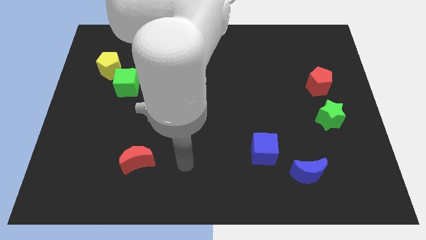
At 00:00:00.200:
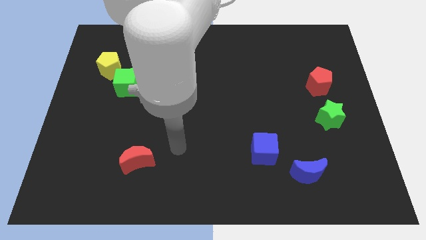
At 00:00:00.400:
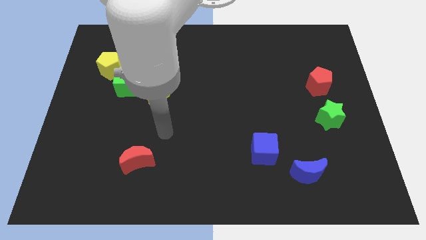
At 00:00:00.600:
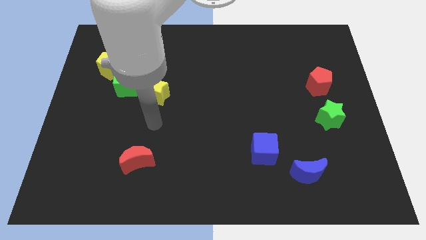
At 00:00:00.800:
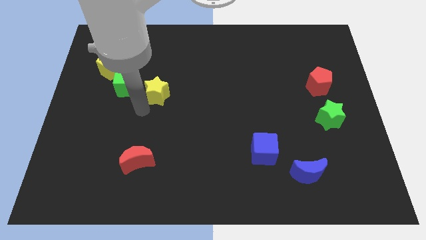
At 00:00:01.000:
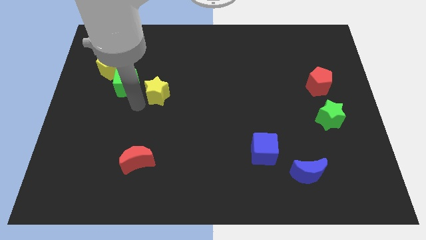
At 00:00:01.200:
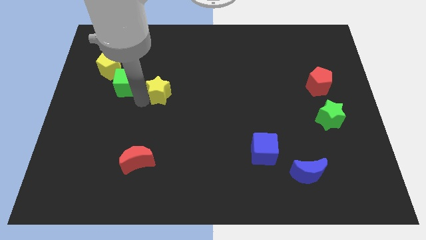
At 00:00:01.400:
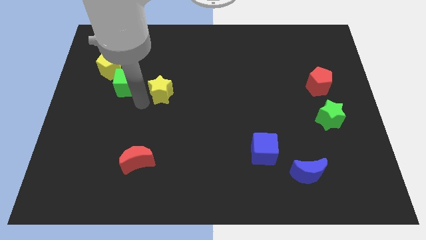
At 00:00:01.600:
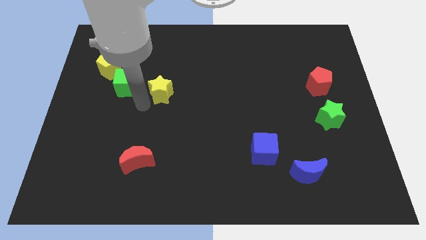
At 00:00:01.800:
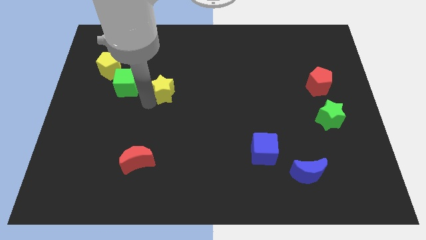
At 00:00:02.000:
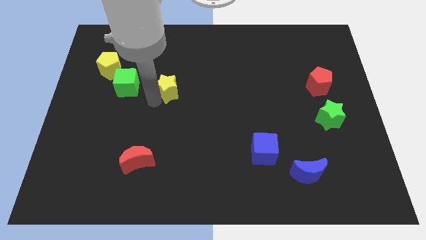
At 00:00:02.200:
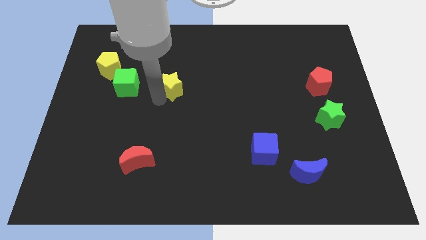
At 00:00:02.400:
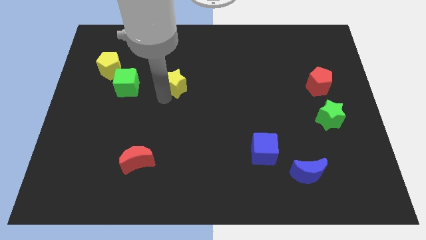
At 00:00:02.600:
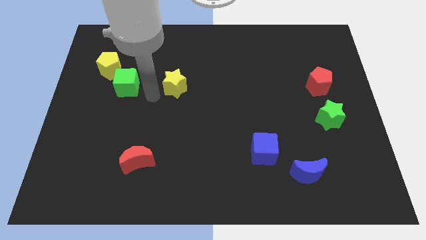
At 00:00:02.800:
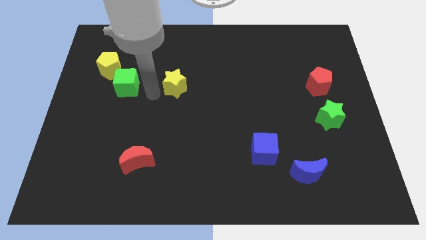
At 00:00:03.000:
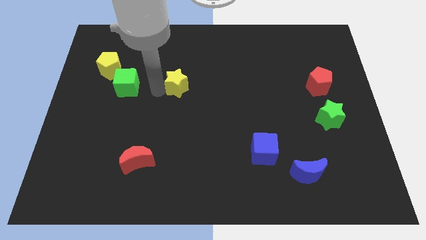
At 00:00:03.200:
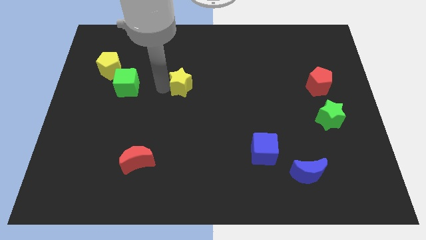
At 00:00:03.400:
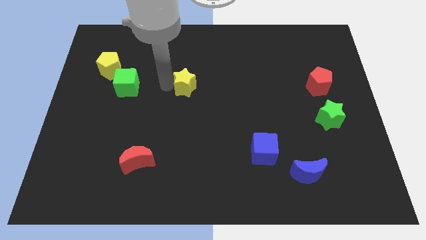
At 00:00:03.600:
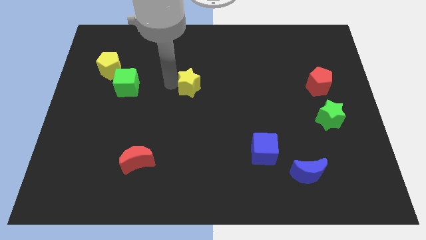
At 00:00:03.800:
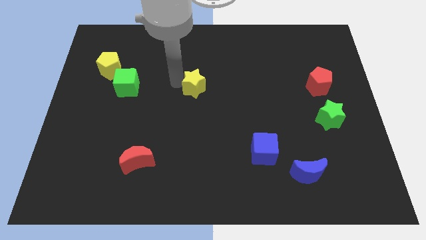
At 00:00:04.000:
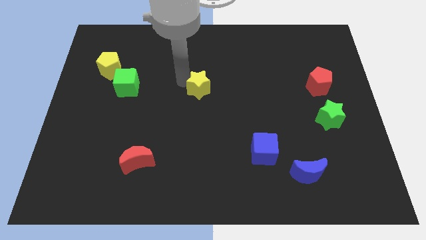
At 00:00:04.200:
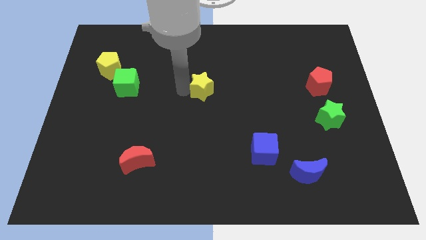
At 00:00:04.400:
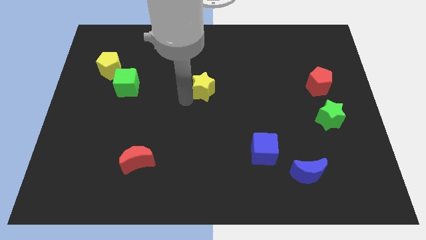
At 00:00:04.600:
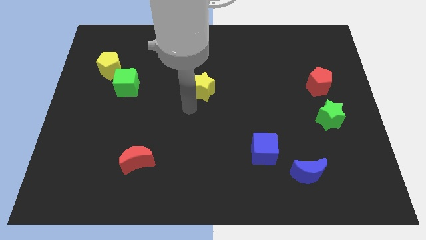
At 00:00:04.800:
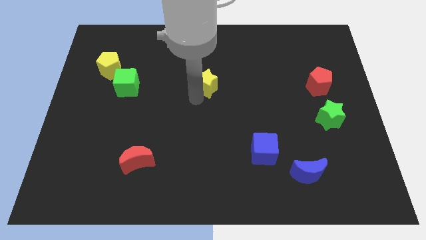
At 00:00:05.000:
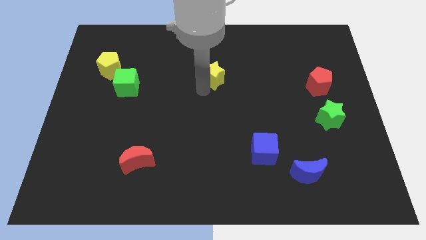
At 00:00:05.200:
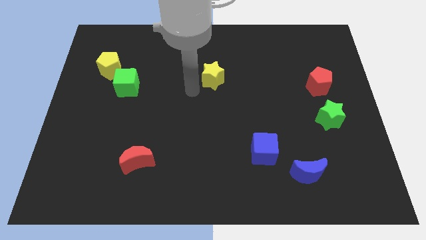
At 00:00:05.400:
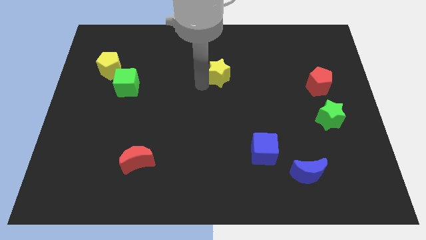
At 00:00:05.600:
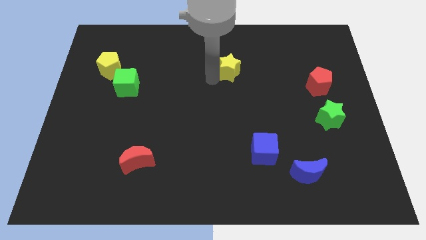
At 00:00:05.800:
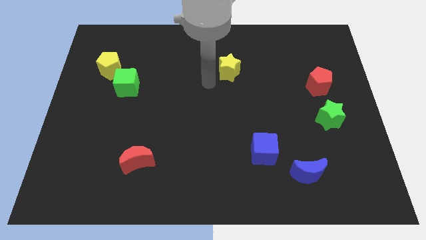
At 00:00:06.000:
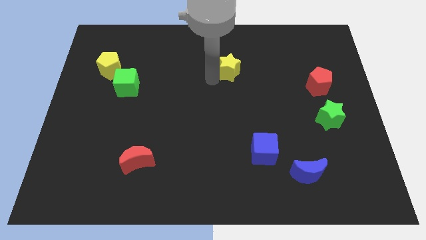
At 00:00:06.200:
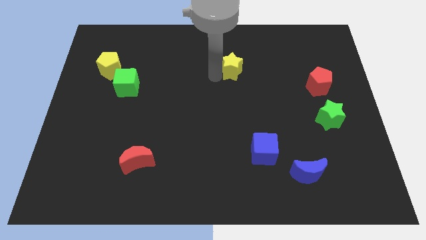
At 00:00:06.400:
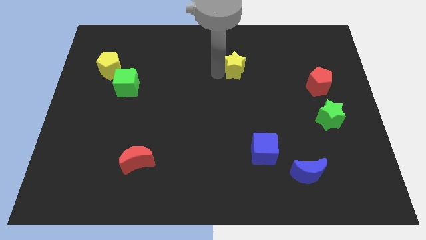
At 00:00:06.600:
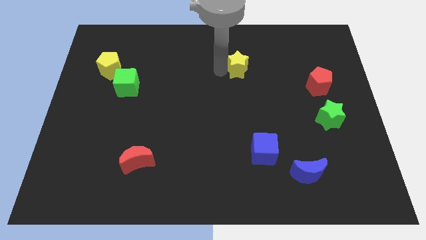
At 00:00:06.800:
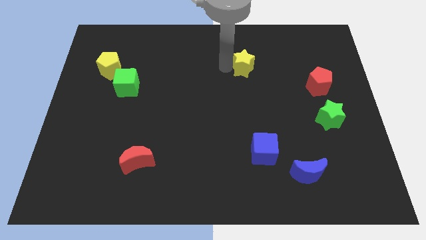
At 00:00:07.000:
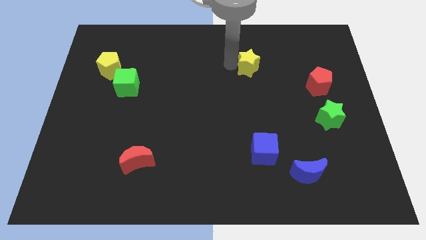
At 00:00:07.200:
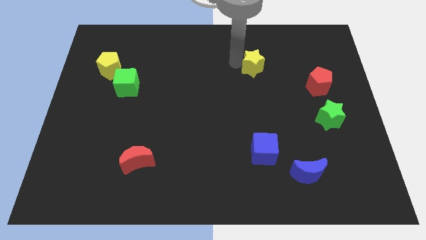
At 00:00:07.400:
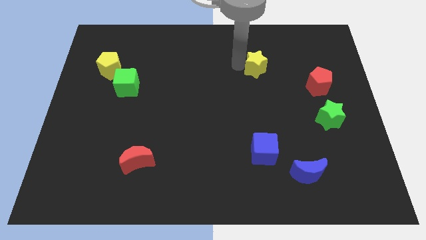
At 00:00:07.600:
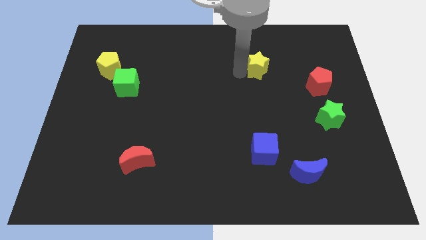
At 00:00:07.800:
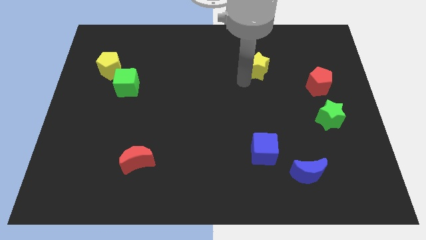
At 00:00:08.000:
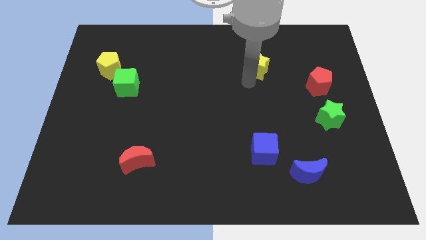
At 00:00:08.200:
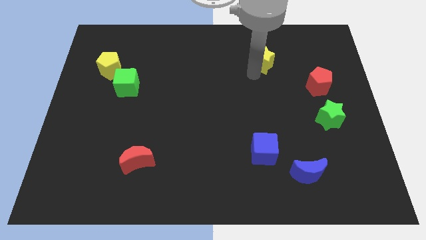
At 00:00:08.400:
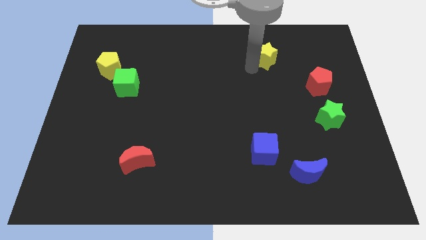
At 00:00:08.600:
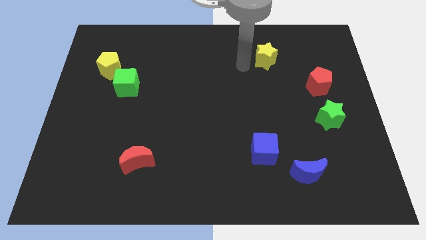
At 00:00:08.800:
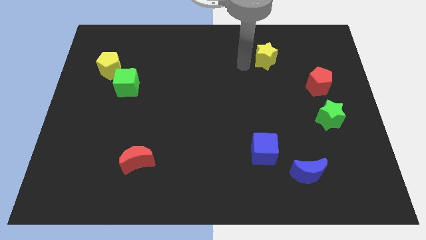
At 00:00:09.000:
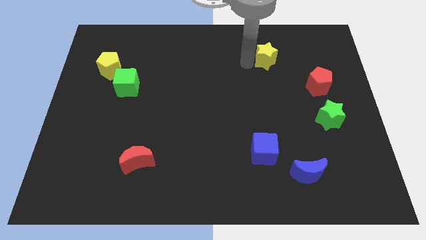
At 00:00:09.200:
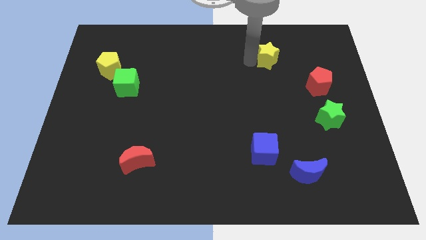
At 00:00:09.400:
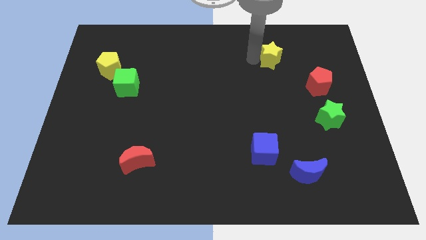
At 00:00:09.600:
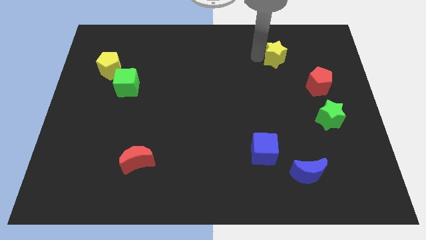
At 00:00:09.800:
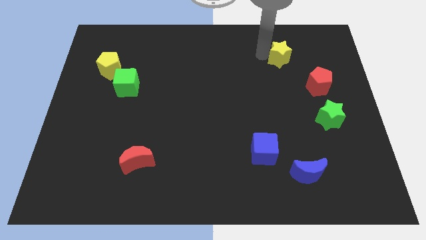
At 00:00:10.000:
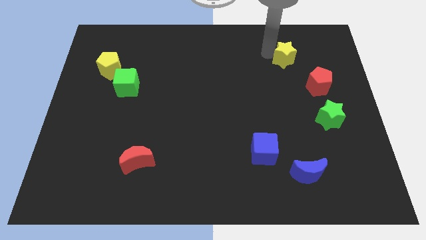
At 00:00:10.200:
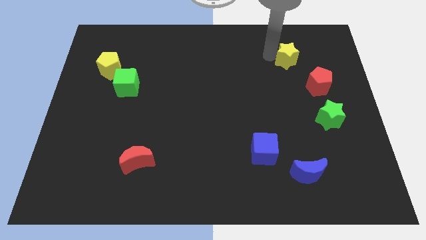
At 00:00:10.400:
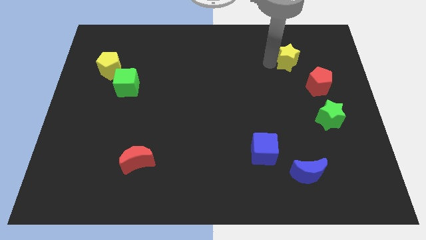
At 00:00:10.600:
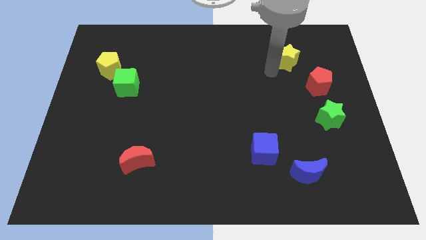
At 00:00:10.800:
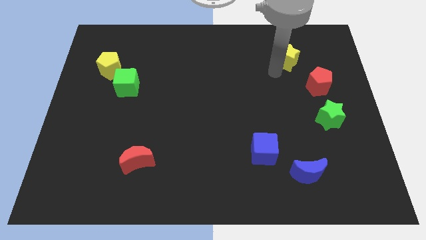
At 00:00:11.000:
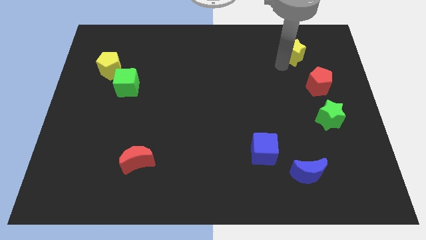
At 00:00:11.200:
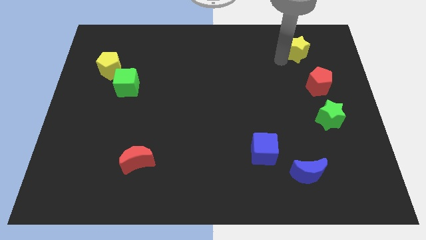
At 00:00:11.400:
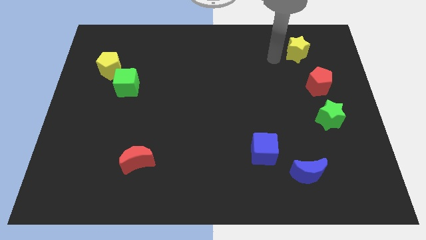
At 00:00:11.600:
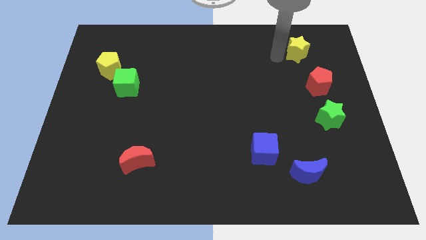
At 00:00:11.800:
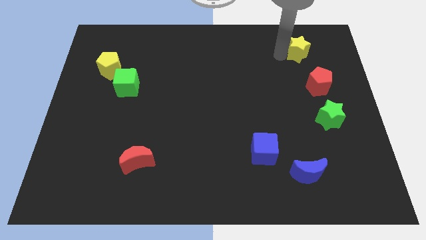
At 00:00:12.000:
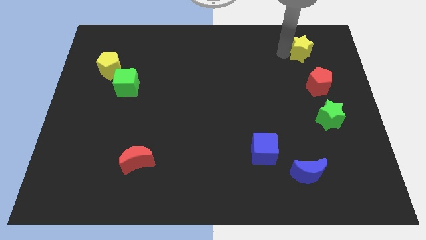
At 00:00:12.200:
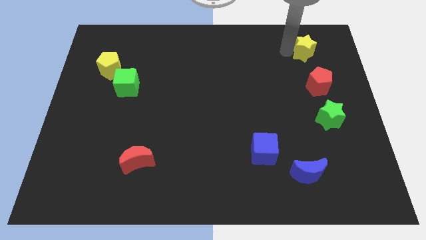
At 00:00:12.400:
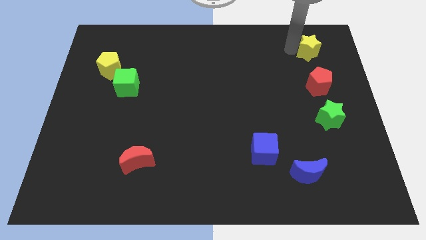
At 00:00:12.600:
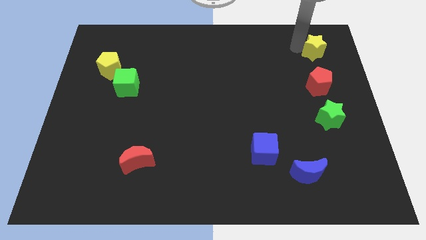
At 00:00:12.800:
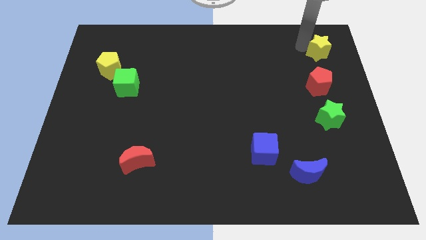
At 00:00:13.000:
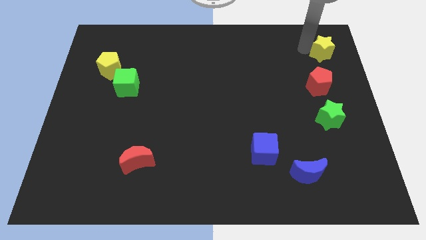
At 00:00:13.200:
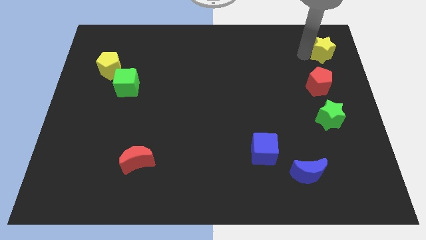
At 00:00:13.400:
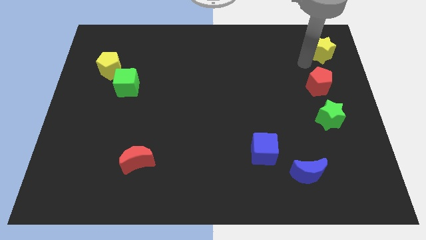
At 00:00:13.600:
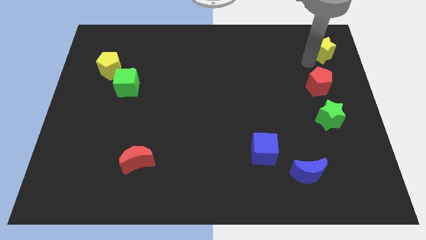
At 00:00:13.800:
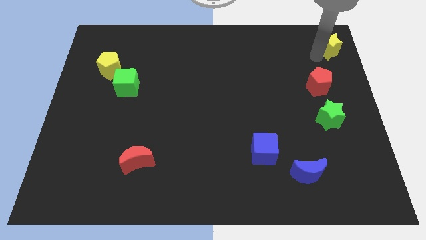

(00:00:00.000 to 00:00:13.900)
move the yellow star to the top right corner
